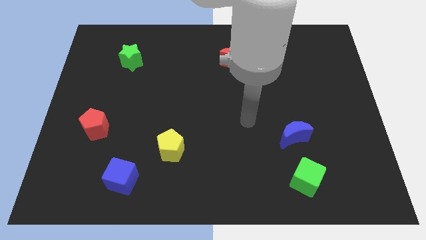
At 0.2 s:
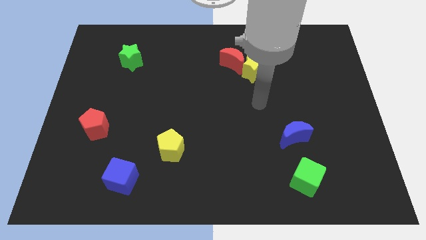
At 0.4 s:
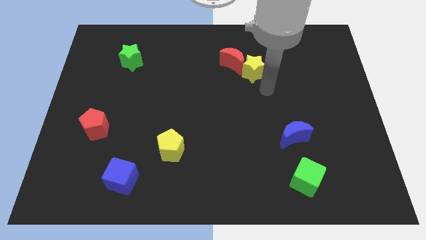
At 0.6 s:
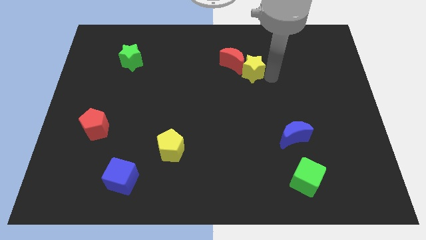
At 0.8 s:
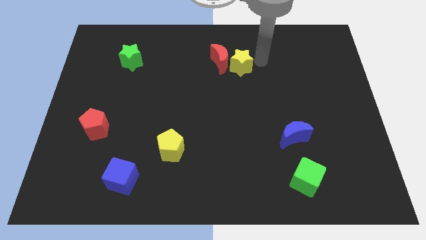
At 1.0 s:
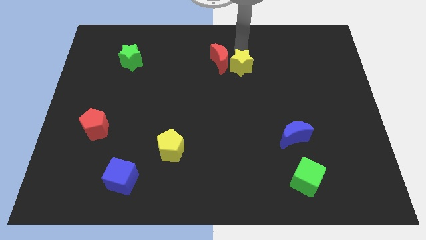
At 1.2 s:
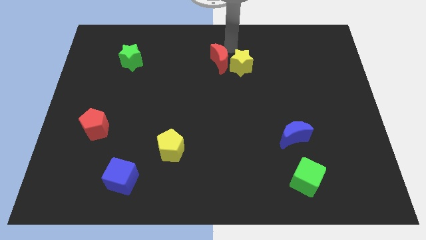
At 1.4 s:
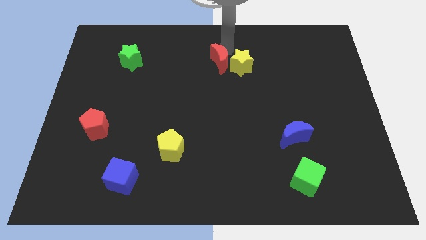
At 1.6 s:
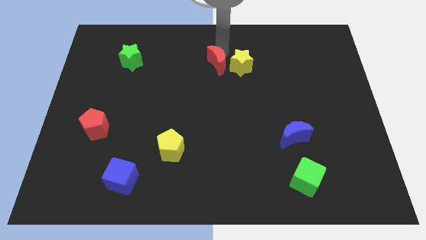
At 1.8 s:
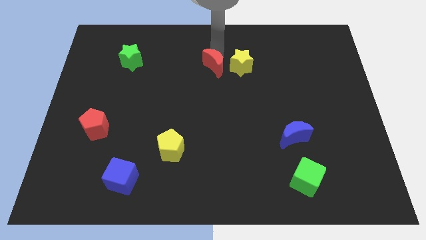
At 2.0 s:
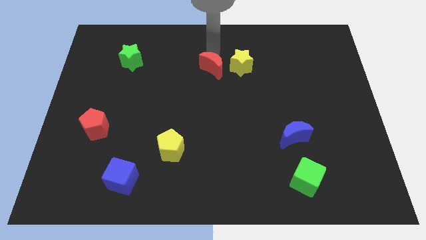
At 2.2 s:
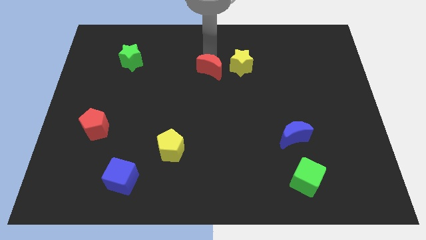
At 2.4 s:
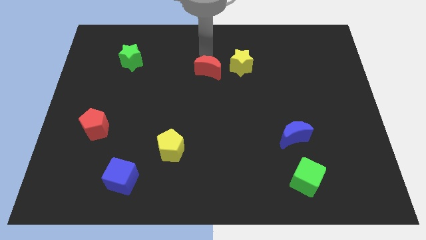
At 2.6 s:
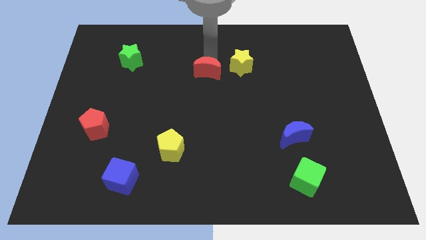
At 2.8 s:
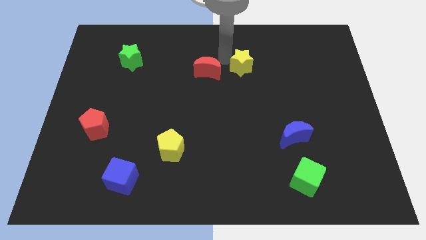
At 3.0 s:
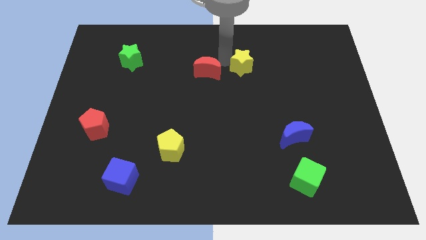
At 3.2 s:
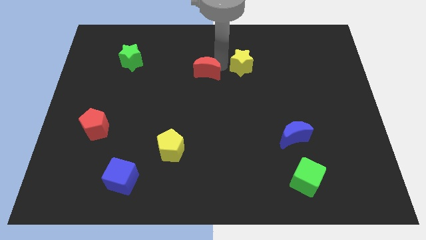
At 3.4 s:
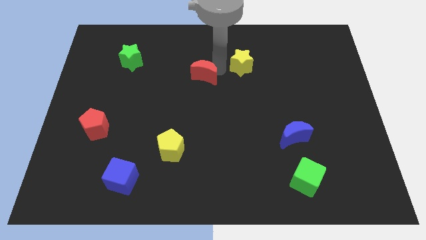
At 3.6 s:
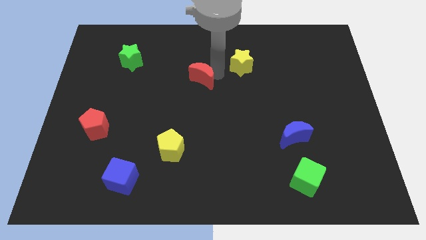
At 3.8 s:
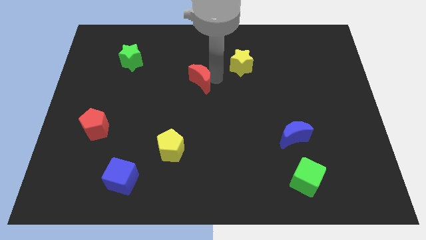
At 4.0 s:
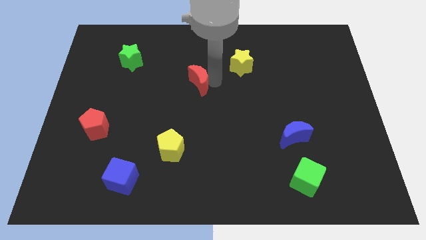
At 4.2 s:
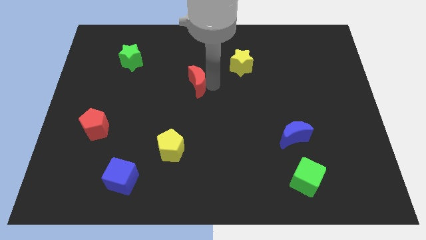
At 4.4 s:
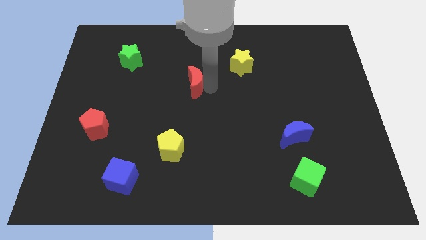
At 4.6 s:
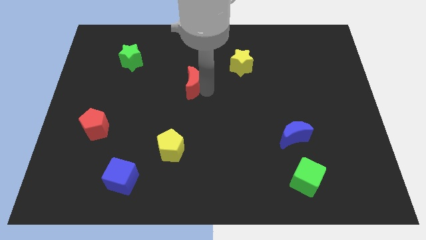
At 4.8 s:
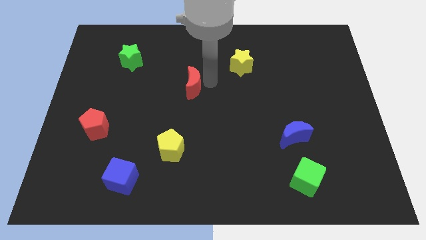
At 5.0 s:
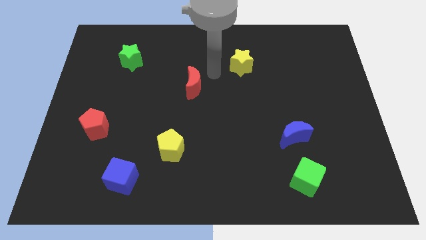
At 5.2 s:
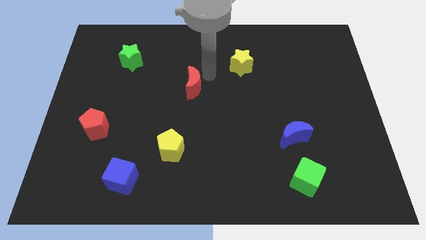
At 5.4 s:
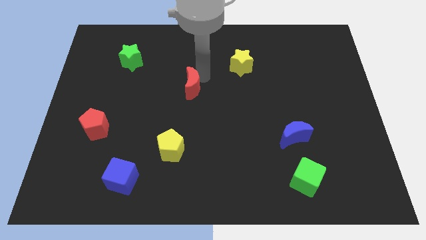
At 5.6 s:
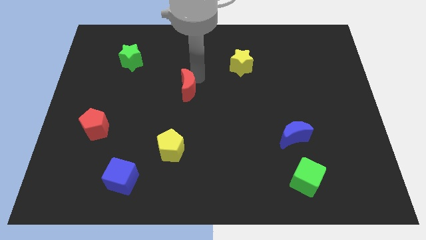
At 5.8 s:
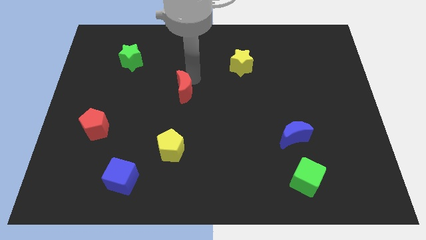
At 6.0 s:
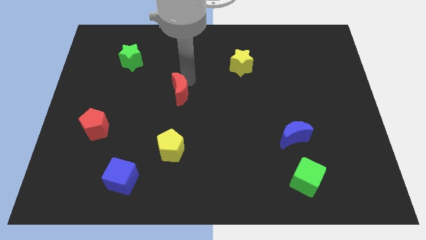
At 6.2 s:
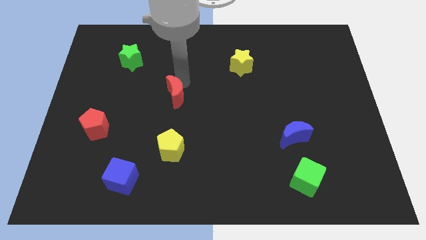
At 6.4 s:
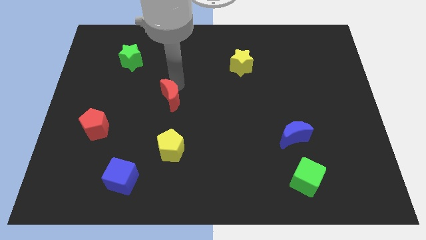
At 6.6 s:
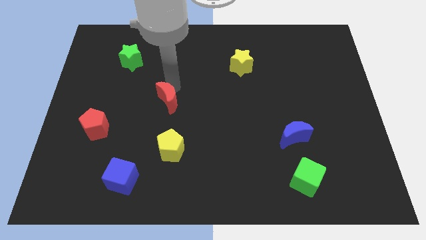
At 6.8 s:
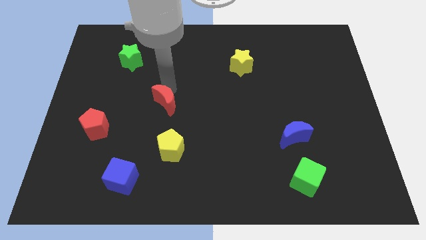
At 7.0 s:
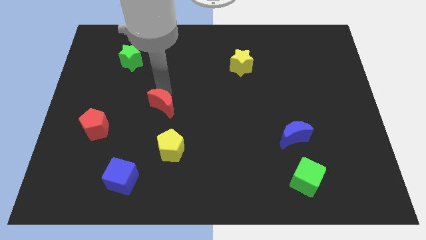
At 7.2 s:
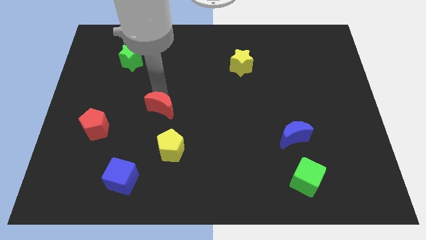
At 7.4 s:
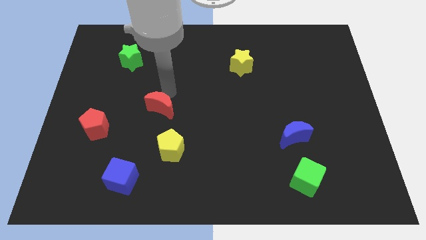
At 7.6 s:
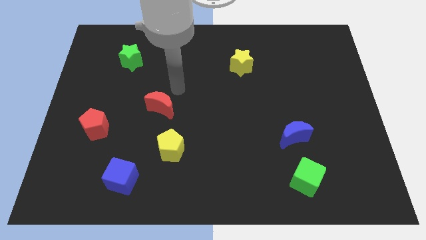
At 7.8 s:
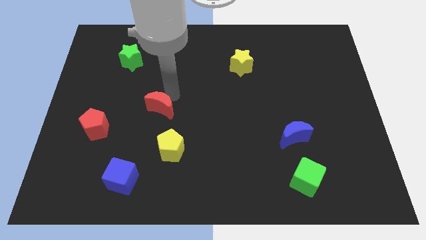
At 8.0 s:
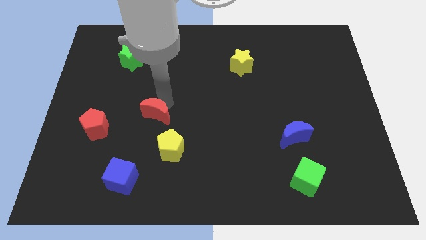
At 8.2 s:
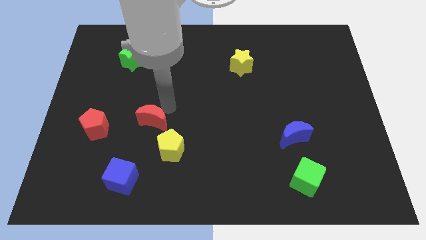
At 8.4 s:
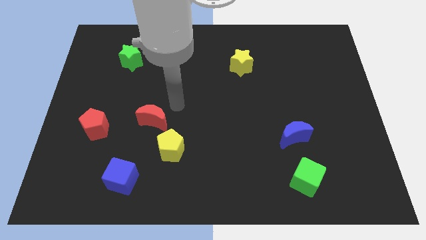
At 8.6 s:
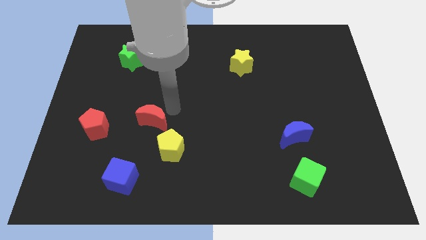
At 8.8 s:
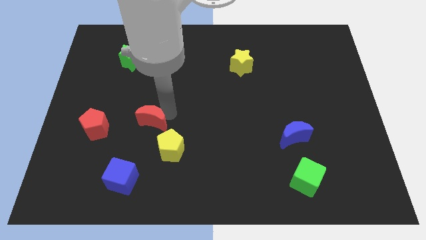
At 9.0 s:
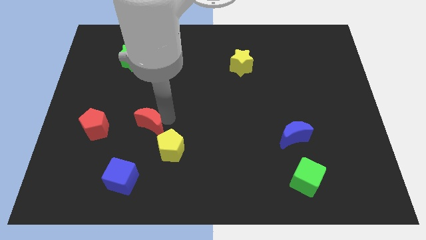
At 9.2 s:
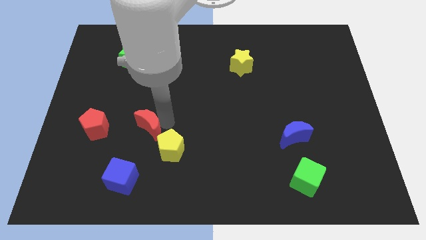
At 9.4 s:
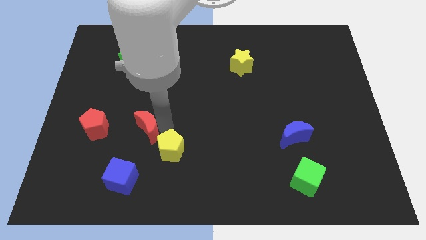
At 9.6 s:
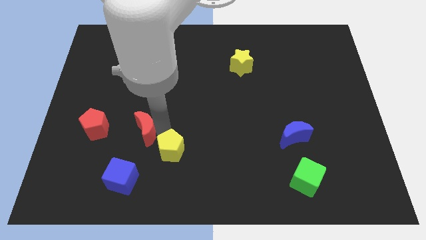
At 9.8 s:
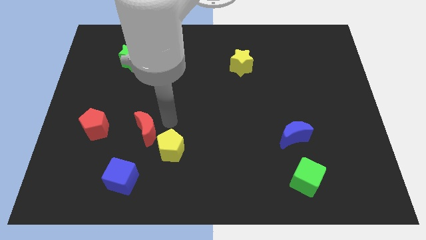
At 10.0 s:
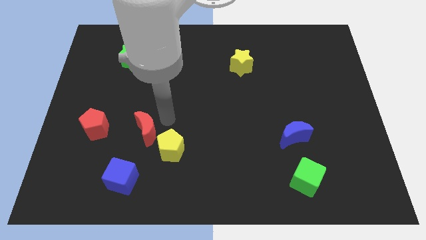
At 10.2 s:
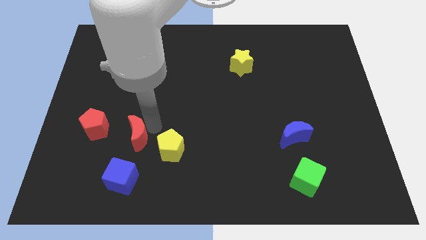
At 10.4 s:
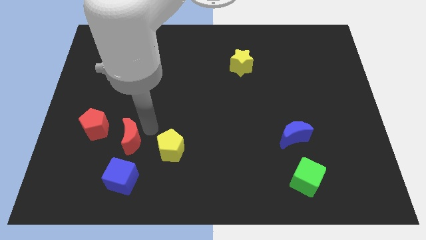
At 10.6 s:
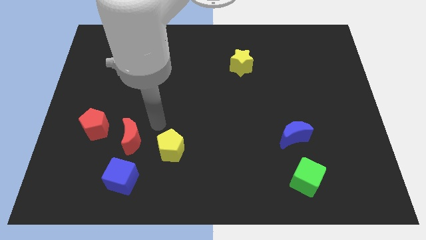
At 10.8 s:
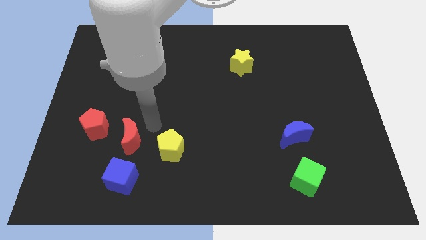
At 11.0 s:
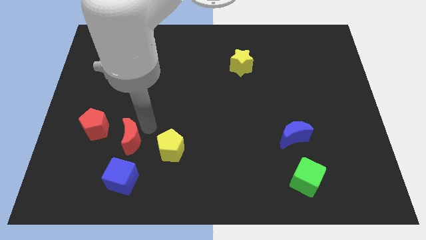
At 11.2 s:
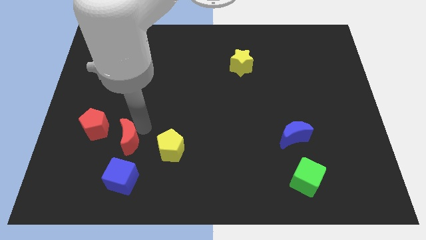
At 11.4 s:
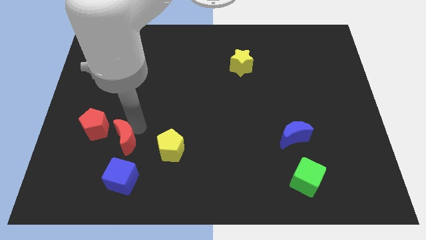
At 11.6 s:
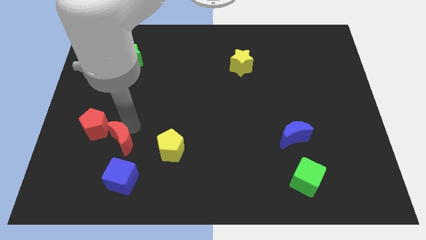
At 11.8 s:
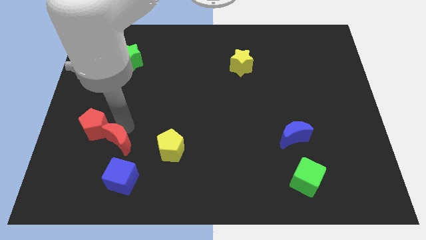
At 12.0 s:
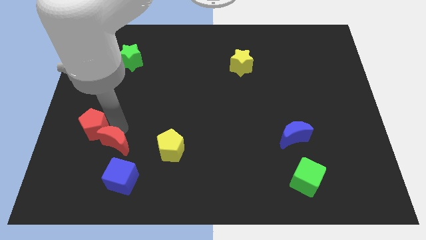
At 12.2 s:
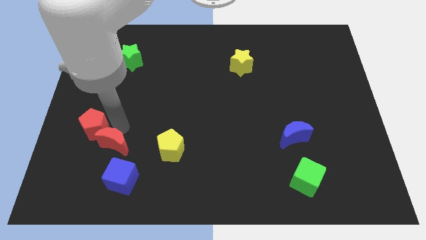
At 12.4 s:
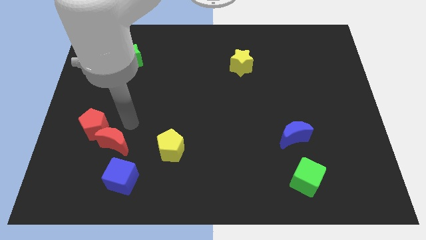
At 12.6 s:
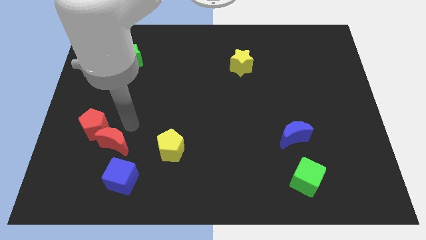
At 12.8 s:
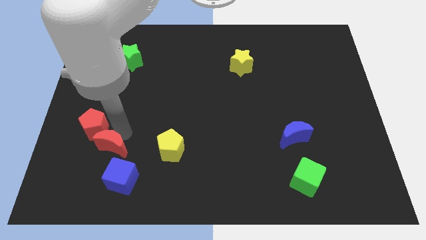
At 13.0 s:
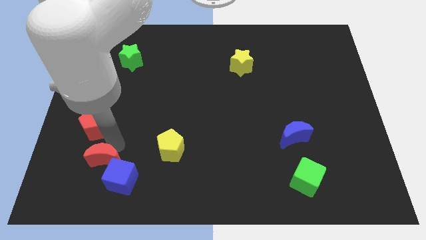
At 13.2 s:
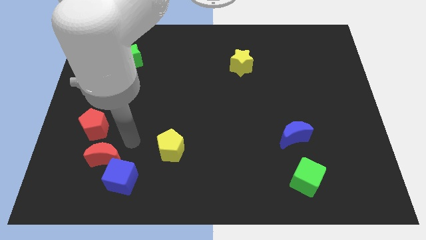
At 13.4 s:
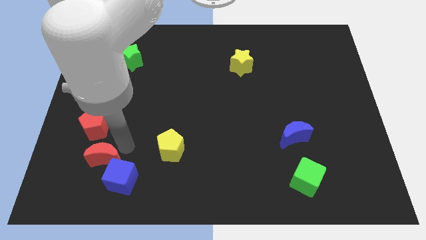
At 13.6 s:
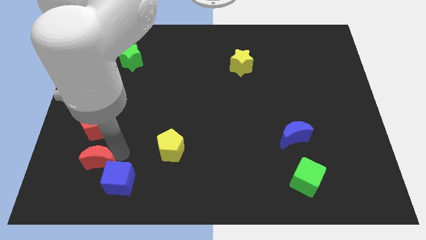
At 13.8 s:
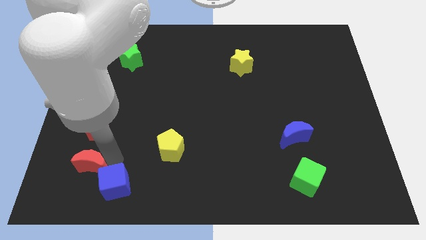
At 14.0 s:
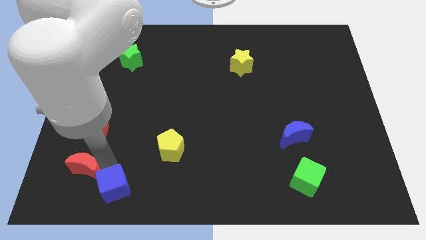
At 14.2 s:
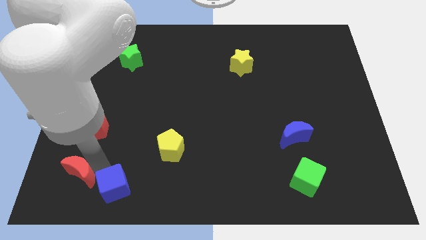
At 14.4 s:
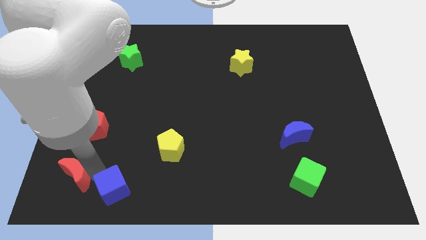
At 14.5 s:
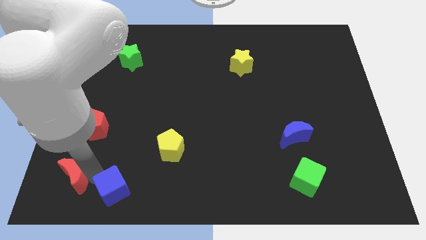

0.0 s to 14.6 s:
push the red moon to the bottom left corner
